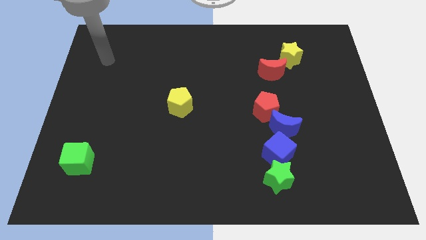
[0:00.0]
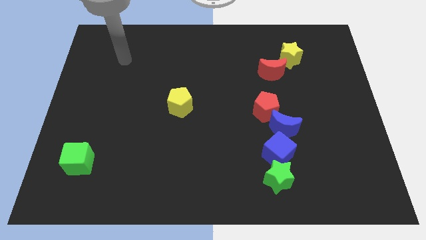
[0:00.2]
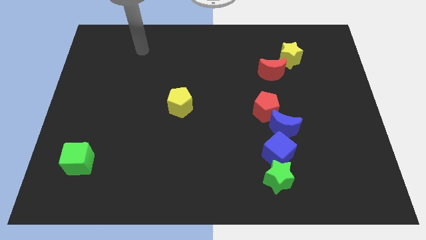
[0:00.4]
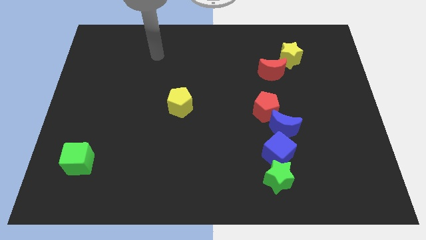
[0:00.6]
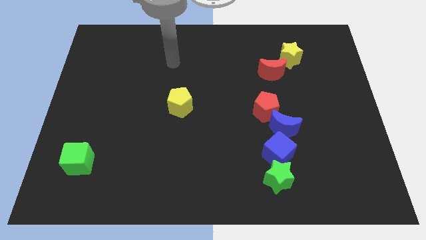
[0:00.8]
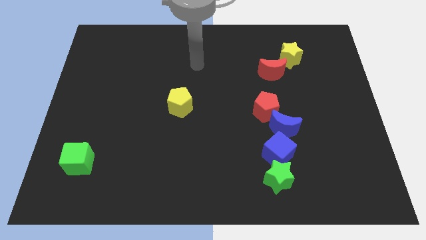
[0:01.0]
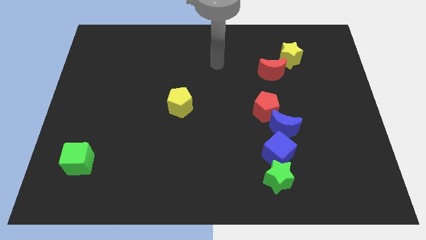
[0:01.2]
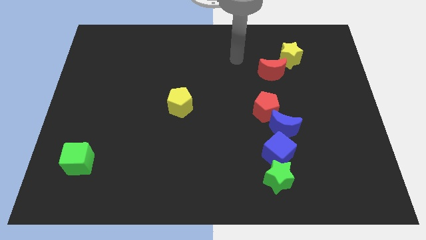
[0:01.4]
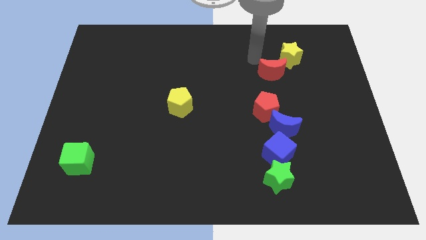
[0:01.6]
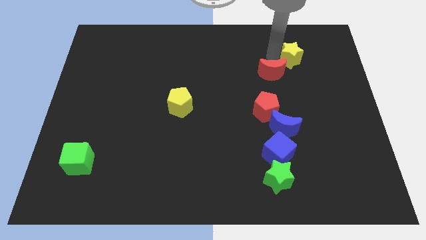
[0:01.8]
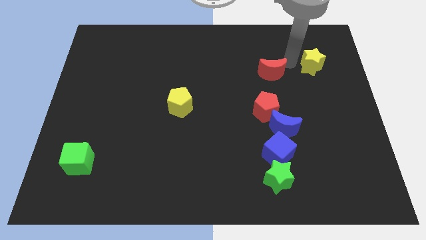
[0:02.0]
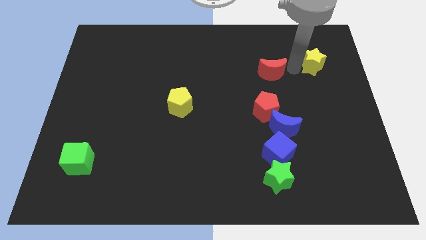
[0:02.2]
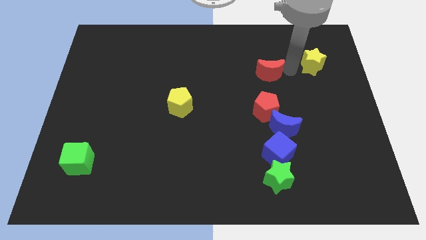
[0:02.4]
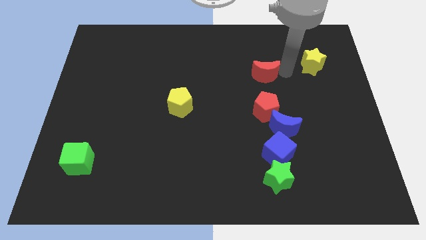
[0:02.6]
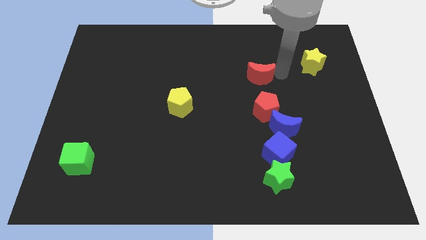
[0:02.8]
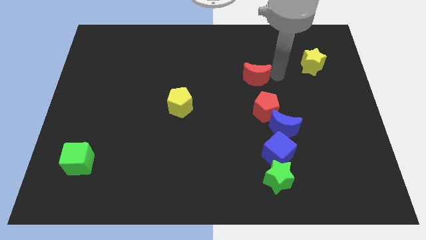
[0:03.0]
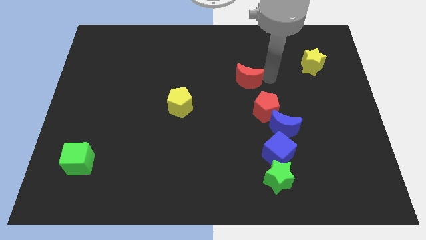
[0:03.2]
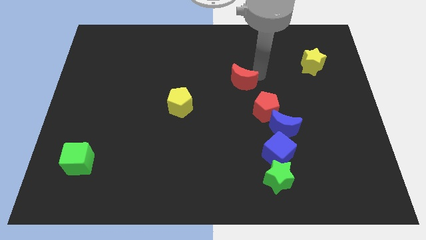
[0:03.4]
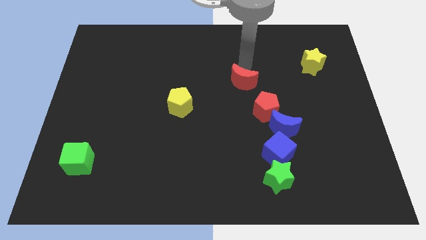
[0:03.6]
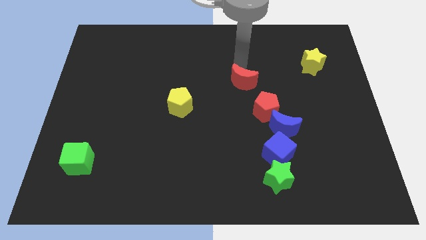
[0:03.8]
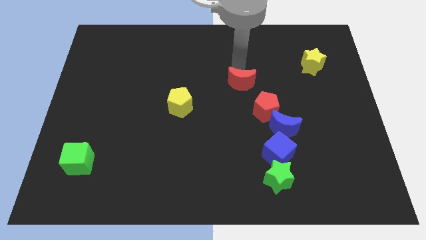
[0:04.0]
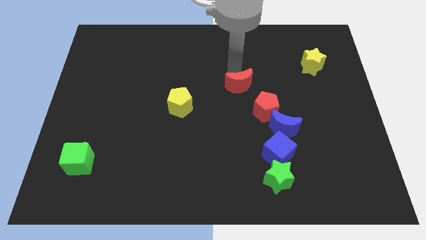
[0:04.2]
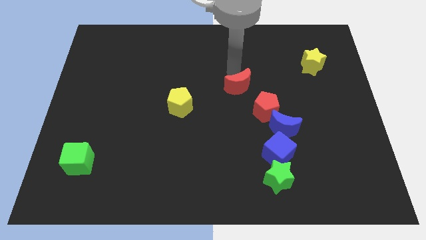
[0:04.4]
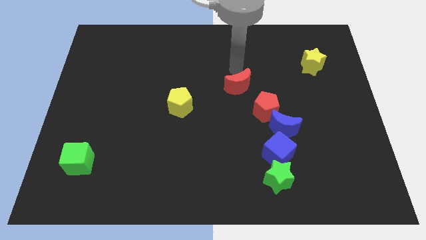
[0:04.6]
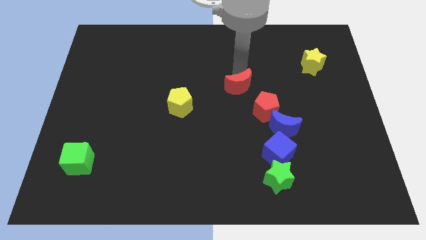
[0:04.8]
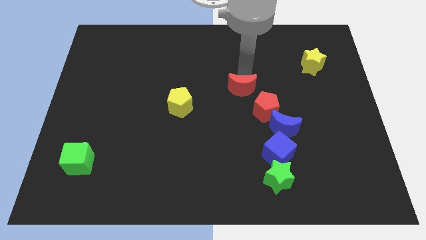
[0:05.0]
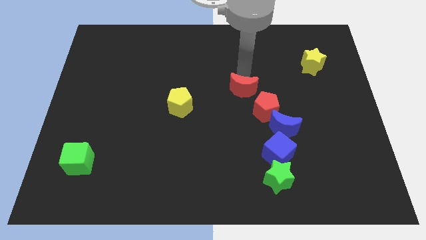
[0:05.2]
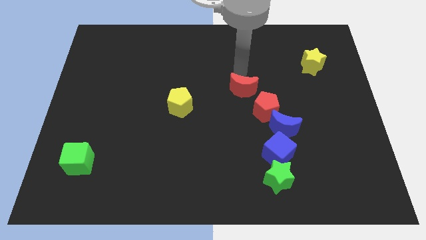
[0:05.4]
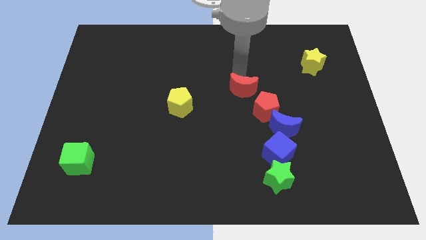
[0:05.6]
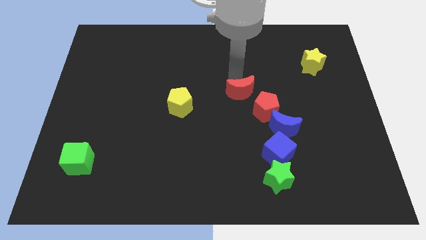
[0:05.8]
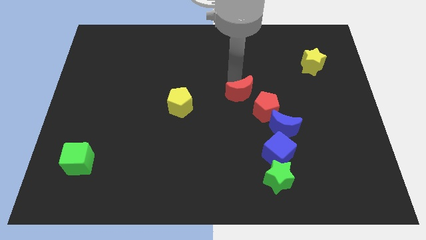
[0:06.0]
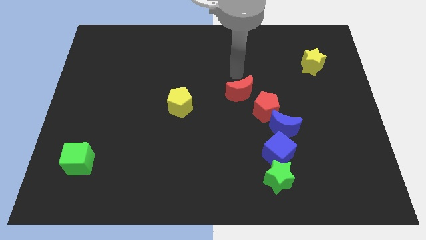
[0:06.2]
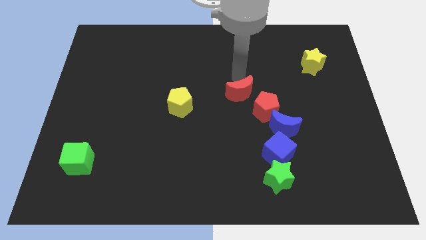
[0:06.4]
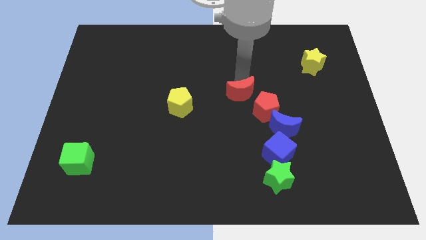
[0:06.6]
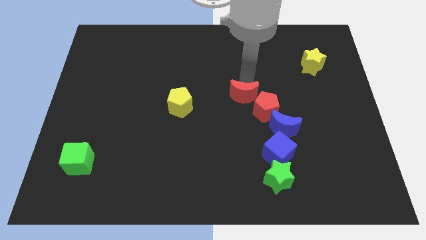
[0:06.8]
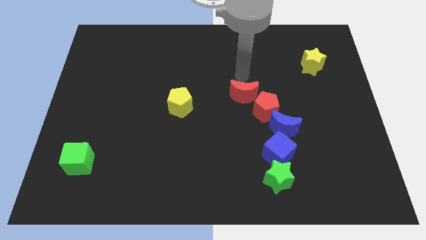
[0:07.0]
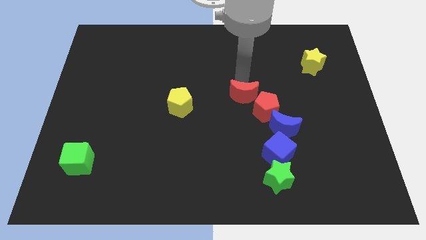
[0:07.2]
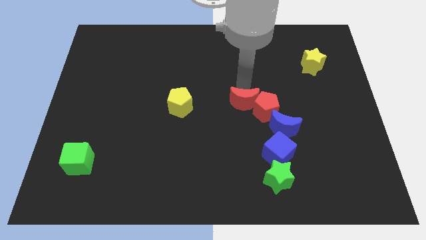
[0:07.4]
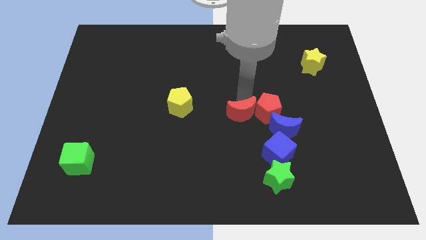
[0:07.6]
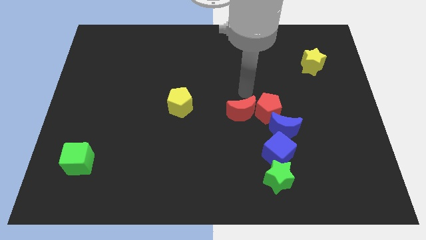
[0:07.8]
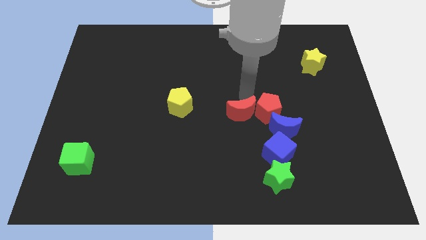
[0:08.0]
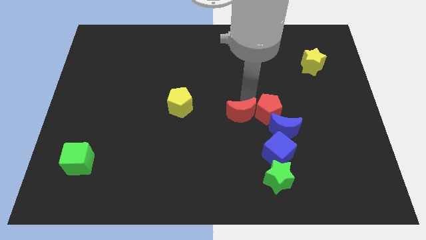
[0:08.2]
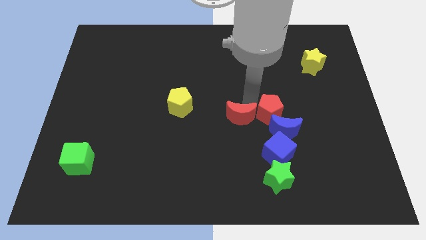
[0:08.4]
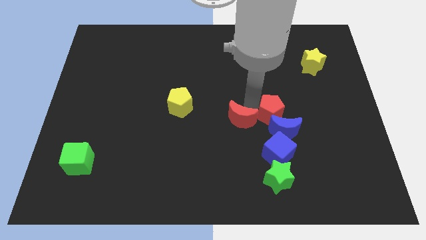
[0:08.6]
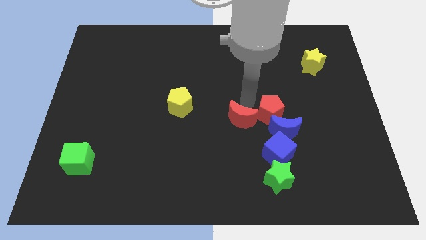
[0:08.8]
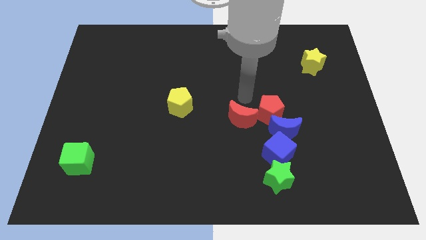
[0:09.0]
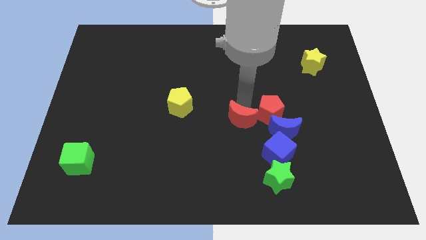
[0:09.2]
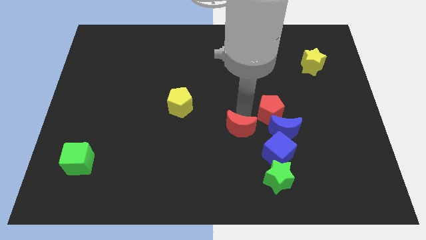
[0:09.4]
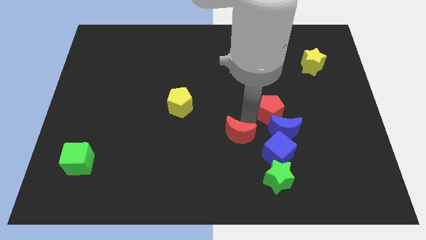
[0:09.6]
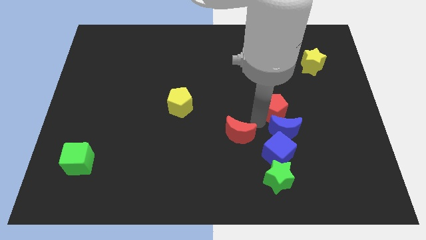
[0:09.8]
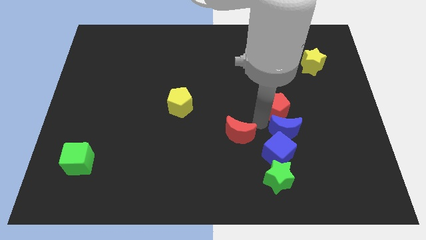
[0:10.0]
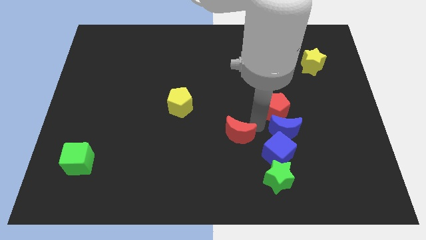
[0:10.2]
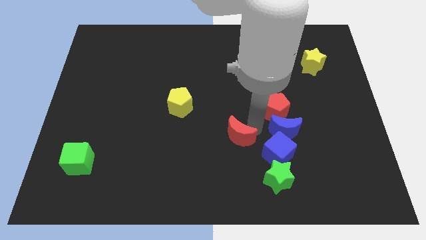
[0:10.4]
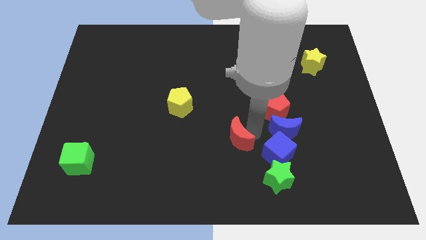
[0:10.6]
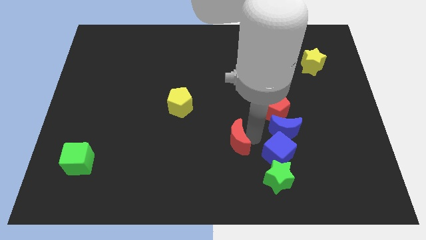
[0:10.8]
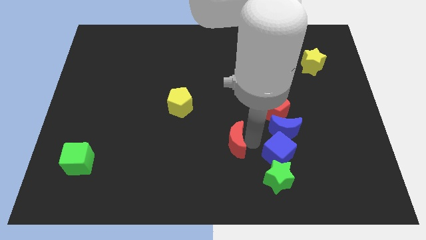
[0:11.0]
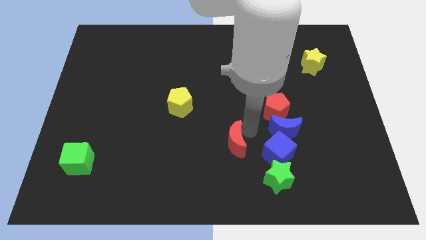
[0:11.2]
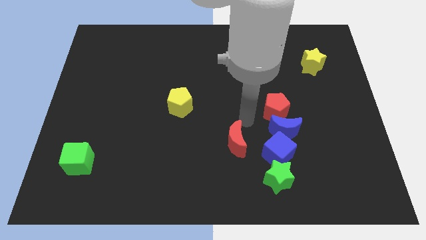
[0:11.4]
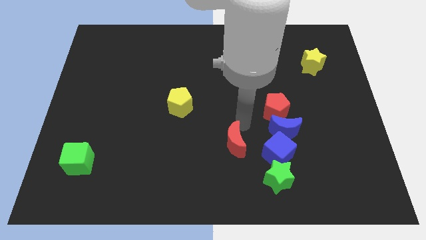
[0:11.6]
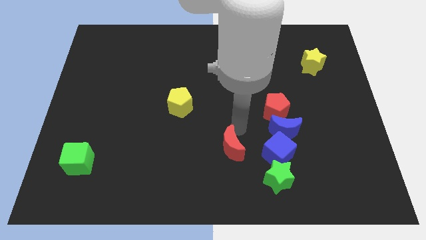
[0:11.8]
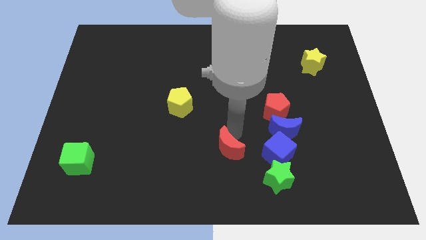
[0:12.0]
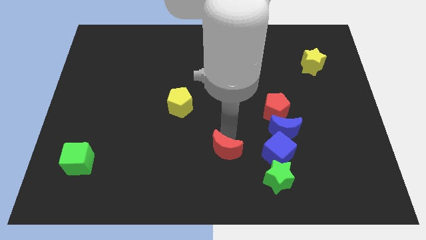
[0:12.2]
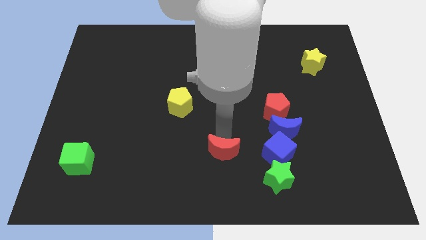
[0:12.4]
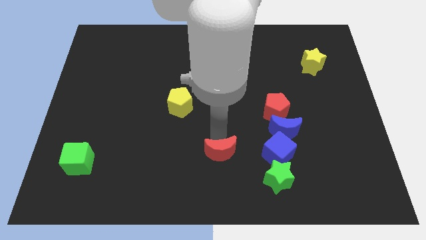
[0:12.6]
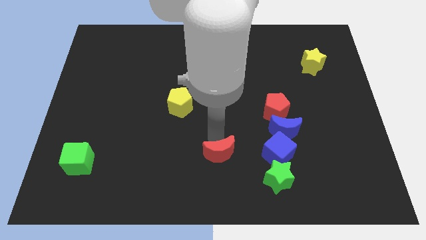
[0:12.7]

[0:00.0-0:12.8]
put the red moon to the bottom

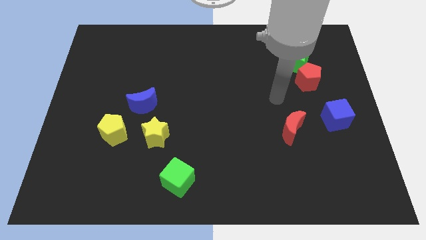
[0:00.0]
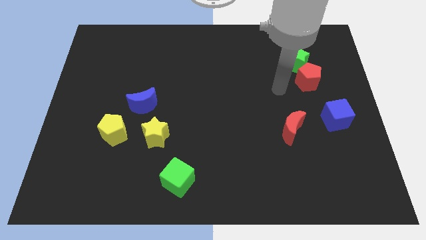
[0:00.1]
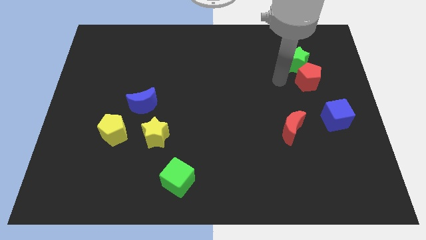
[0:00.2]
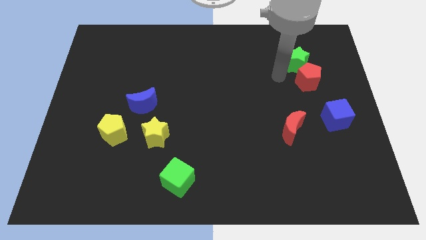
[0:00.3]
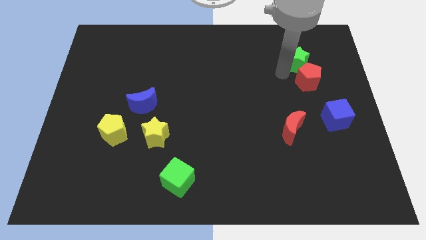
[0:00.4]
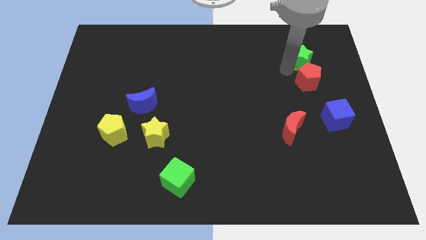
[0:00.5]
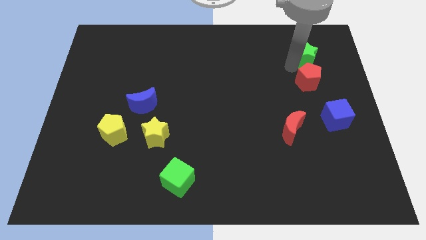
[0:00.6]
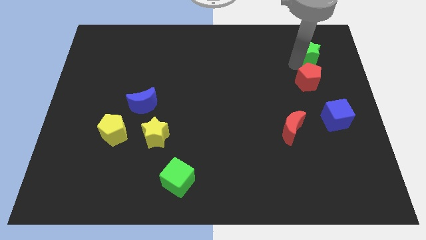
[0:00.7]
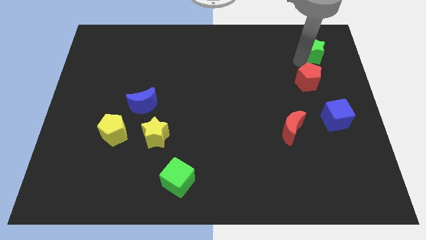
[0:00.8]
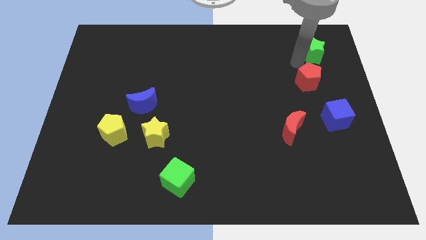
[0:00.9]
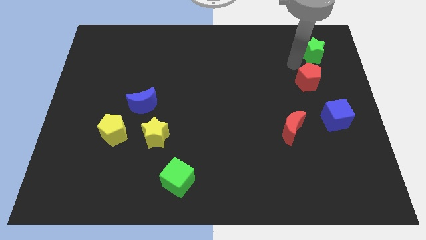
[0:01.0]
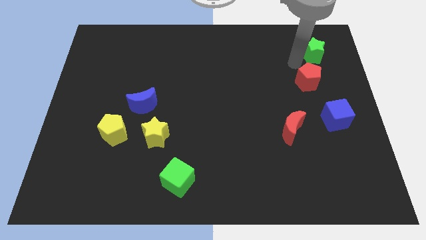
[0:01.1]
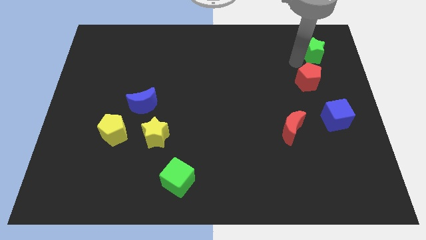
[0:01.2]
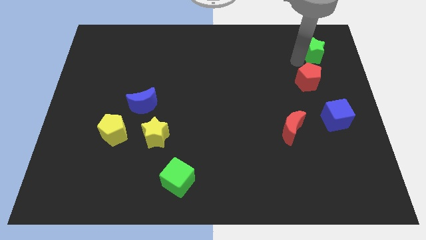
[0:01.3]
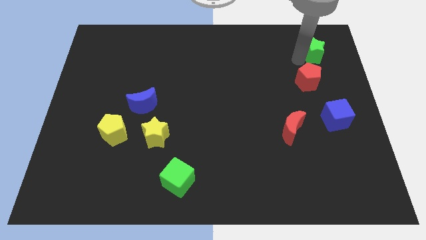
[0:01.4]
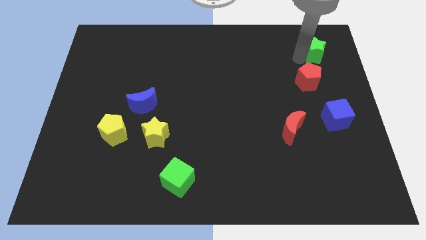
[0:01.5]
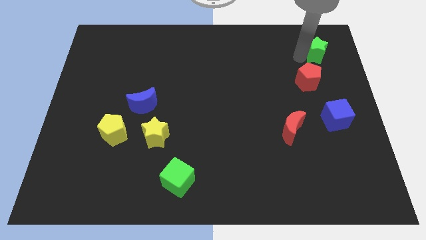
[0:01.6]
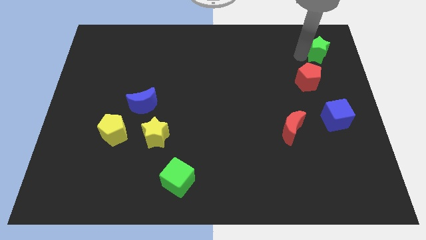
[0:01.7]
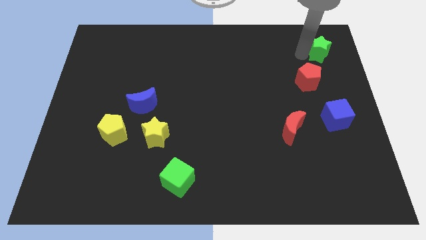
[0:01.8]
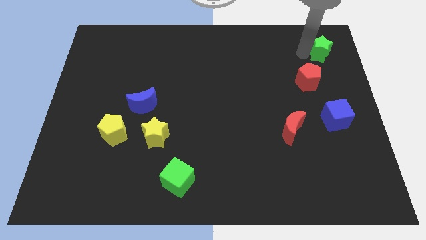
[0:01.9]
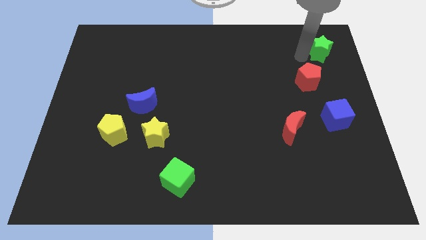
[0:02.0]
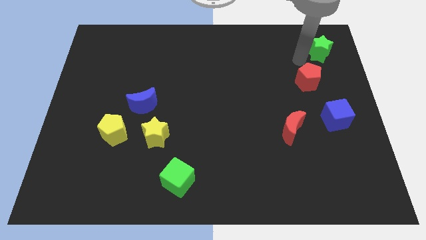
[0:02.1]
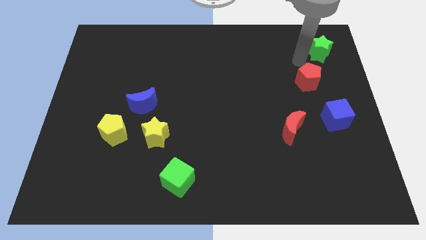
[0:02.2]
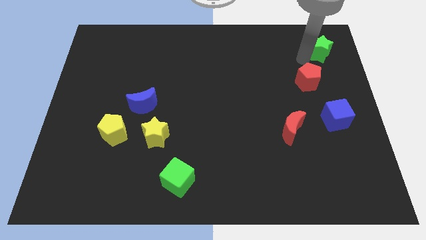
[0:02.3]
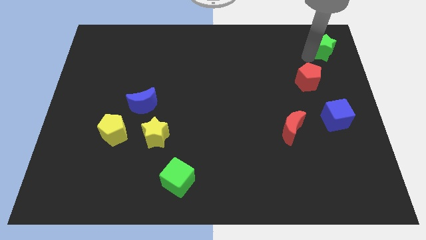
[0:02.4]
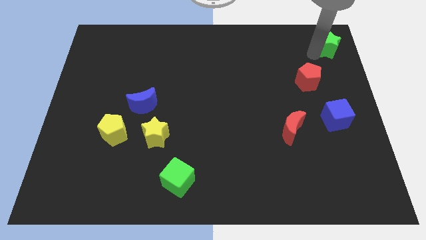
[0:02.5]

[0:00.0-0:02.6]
slide the green star to the top right
